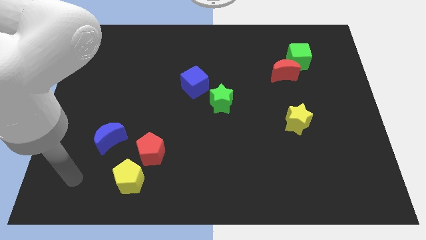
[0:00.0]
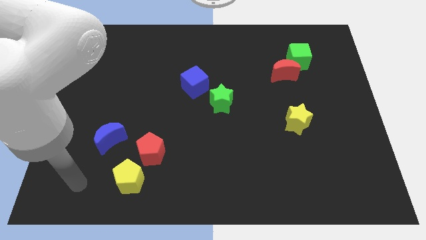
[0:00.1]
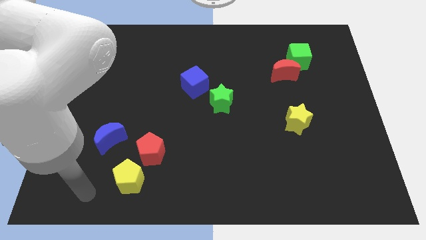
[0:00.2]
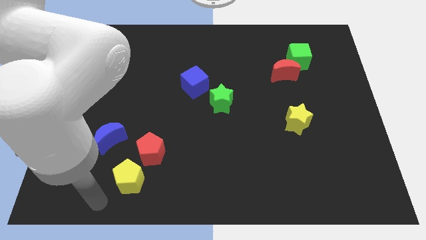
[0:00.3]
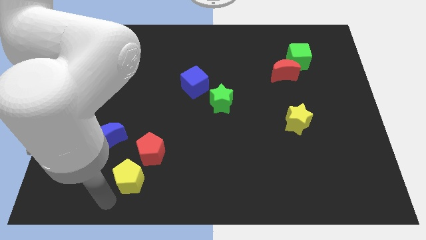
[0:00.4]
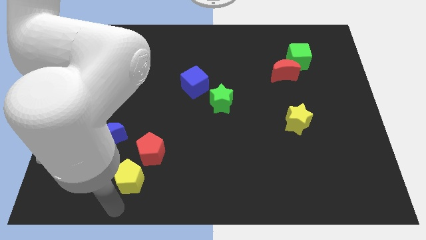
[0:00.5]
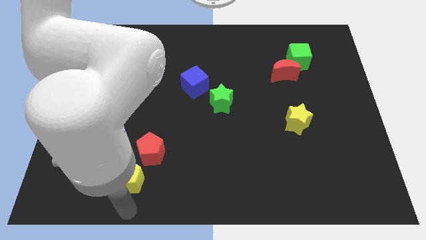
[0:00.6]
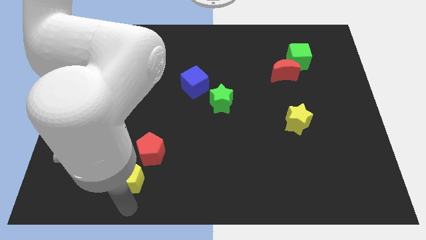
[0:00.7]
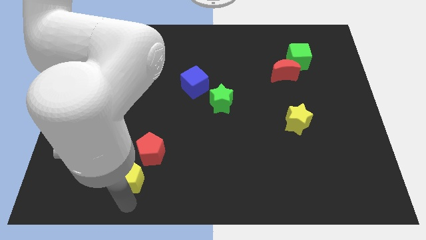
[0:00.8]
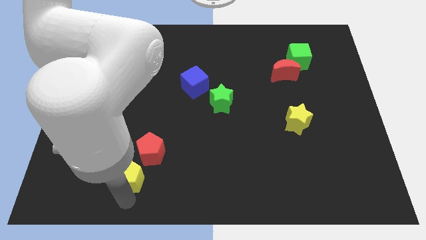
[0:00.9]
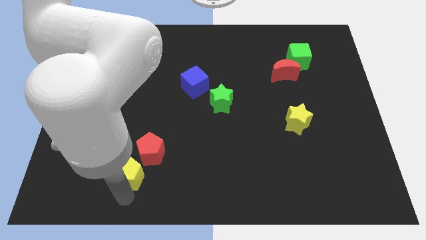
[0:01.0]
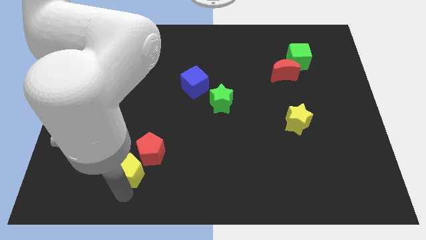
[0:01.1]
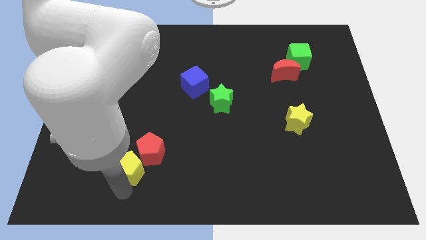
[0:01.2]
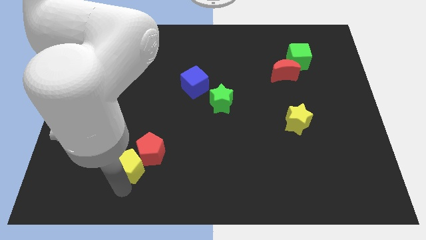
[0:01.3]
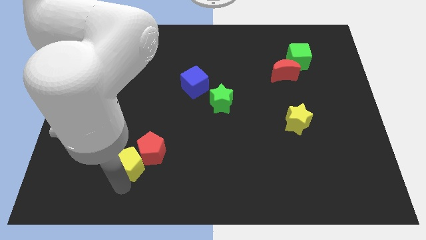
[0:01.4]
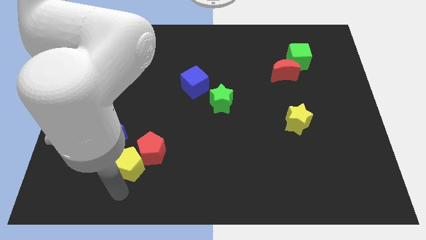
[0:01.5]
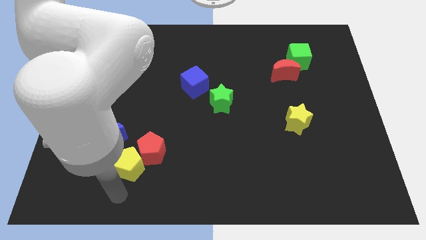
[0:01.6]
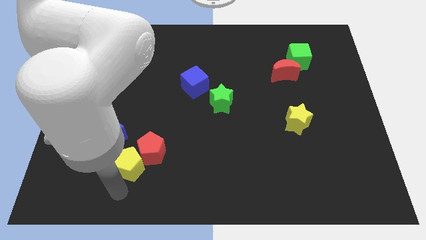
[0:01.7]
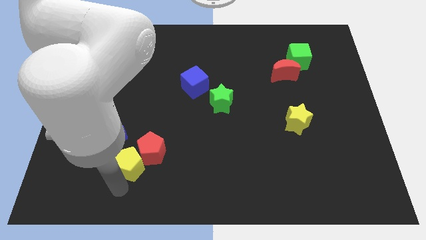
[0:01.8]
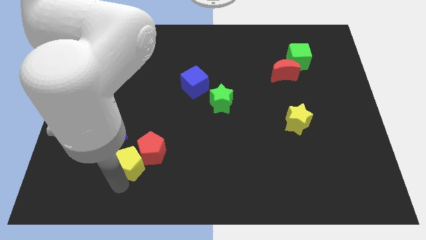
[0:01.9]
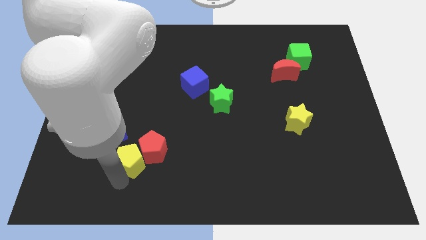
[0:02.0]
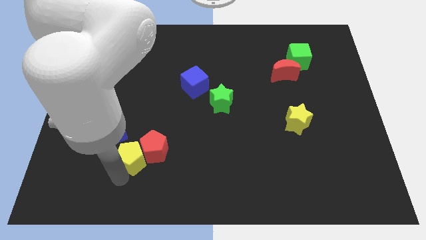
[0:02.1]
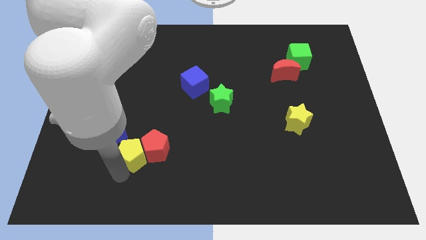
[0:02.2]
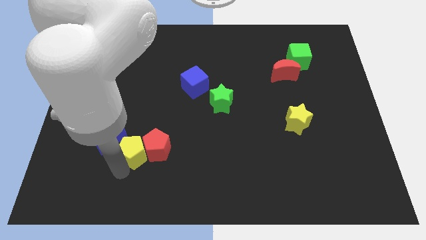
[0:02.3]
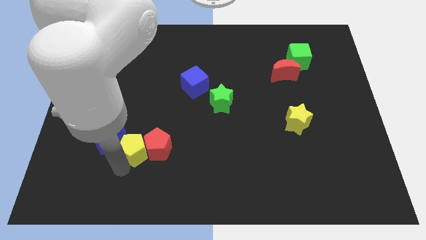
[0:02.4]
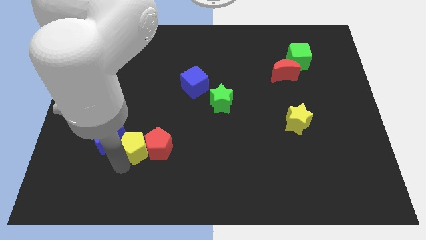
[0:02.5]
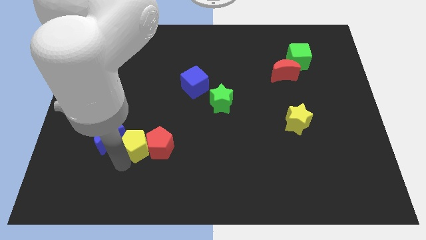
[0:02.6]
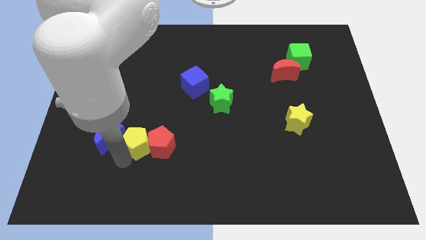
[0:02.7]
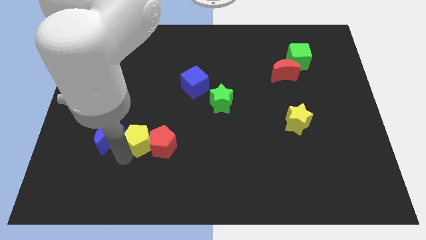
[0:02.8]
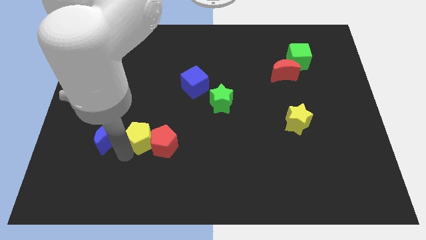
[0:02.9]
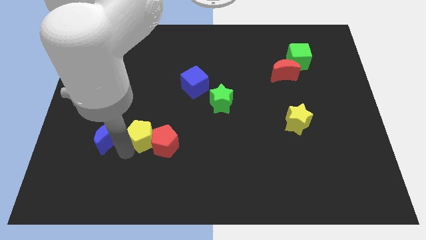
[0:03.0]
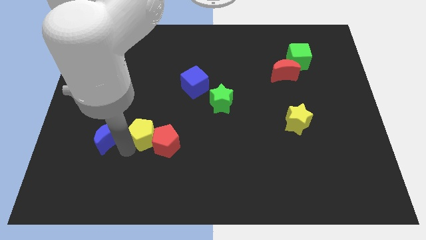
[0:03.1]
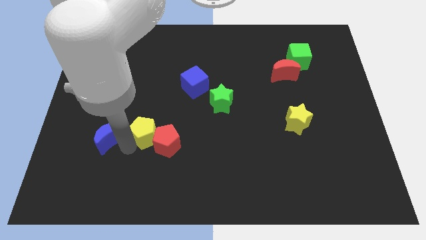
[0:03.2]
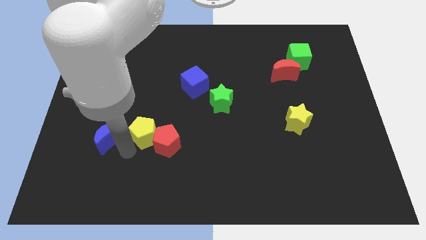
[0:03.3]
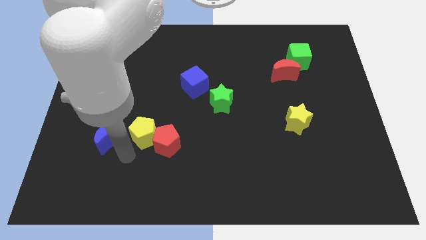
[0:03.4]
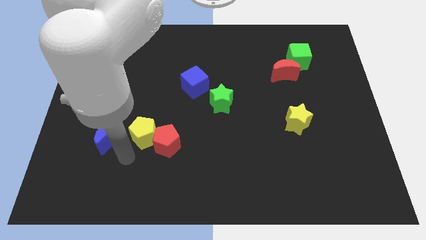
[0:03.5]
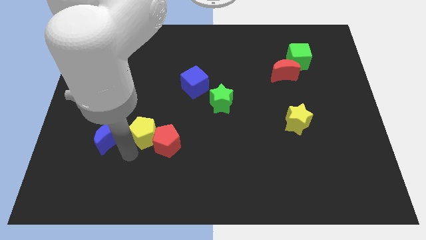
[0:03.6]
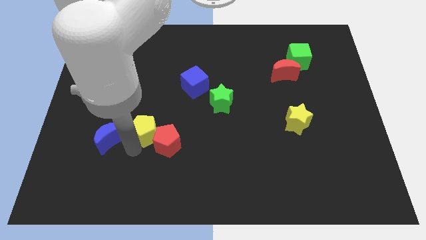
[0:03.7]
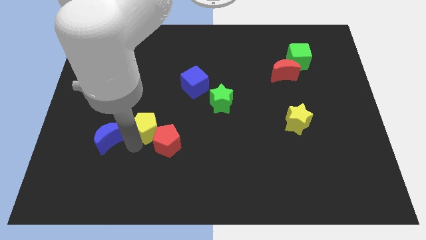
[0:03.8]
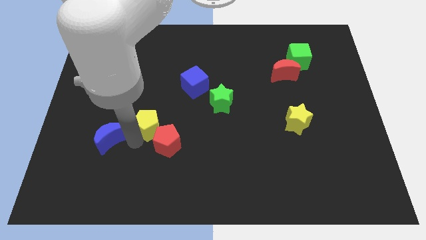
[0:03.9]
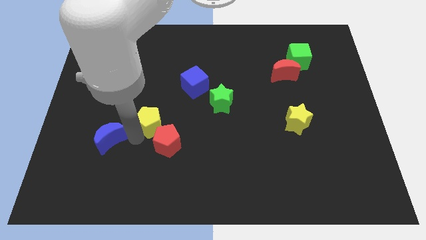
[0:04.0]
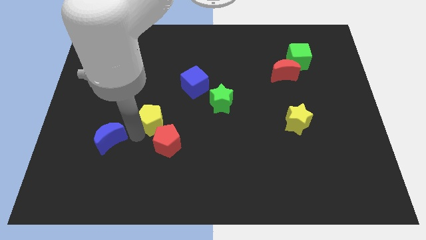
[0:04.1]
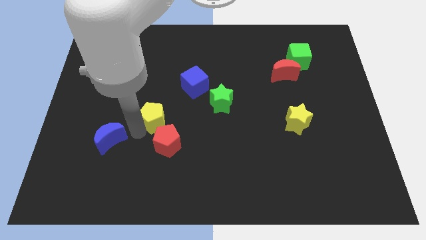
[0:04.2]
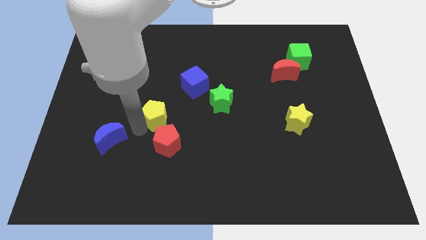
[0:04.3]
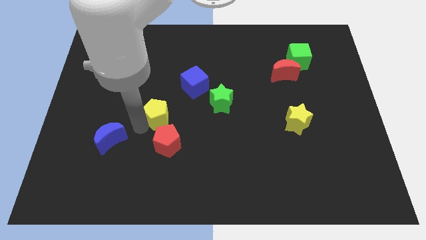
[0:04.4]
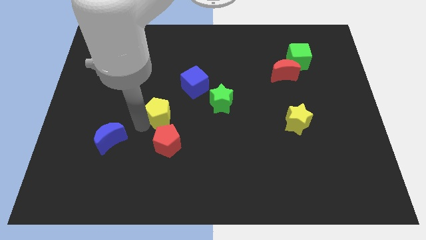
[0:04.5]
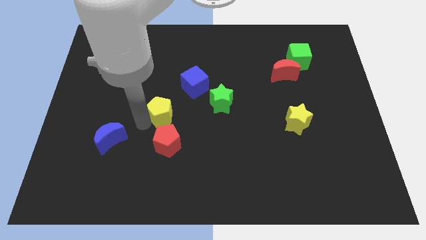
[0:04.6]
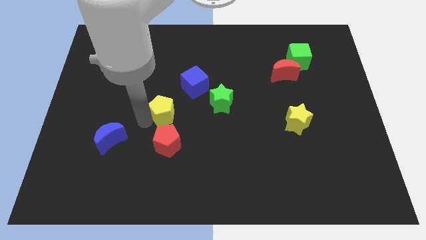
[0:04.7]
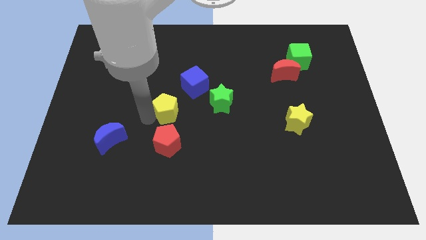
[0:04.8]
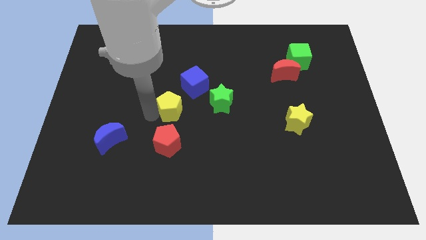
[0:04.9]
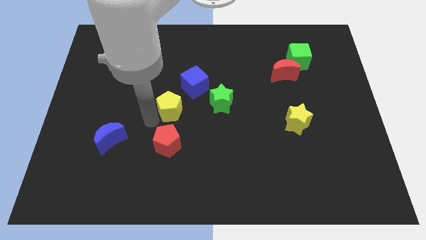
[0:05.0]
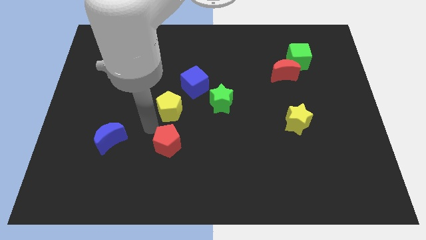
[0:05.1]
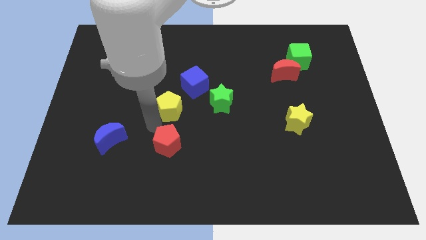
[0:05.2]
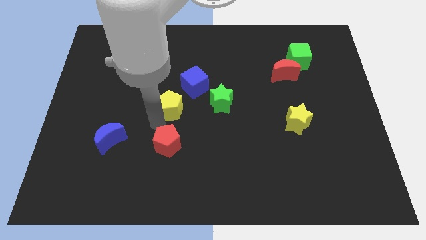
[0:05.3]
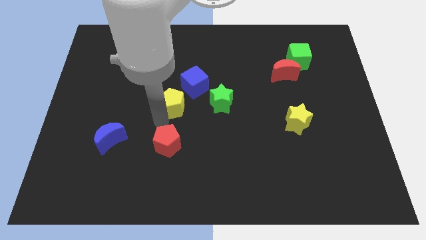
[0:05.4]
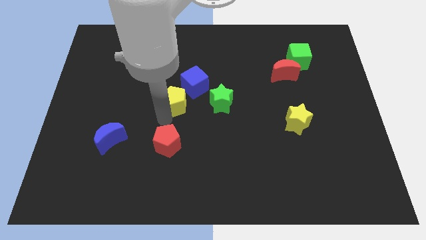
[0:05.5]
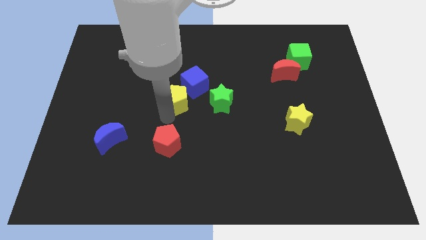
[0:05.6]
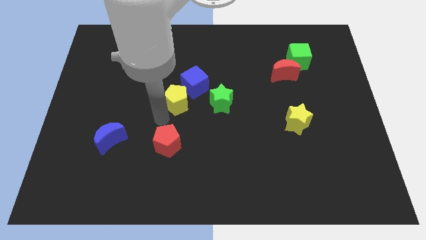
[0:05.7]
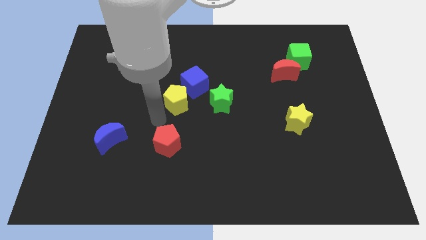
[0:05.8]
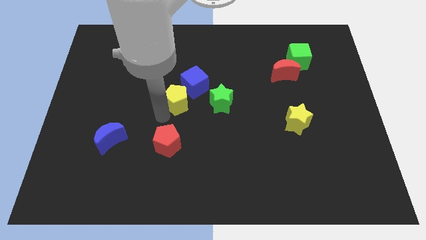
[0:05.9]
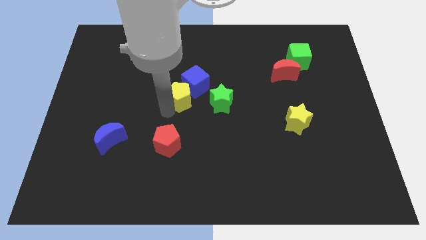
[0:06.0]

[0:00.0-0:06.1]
put the yellow pentagon towards the blue cube

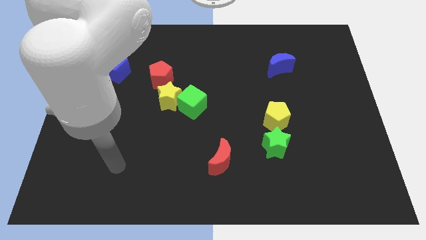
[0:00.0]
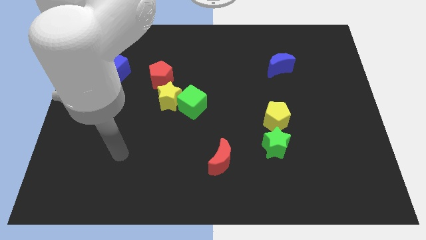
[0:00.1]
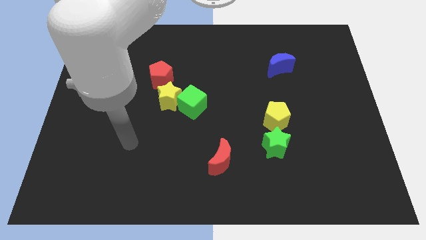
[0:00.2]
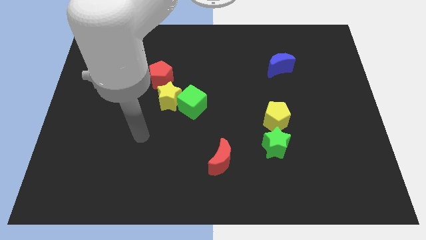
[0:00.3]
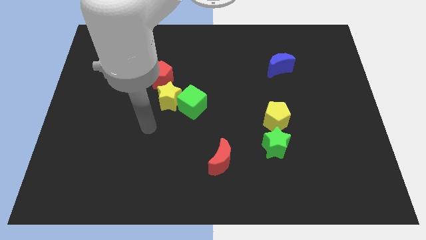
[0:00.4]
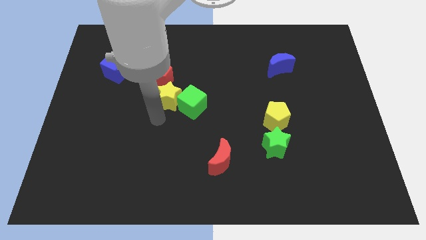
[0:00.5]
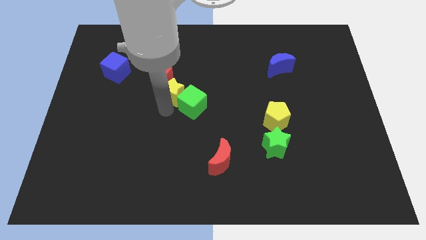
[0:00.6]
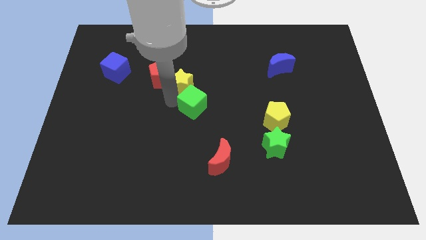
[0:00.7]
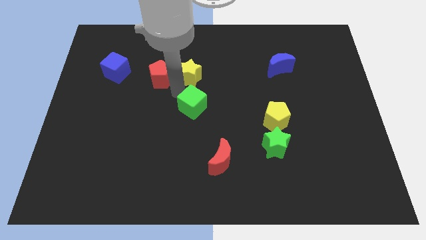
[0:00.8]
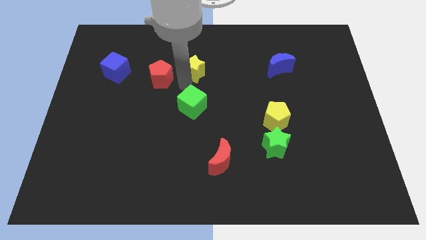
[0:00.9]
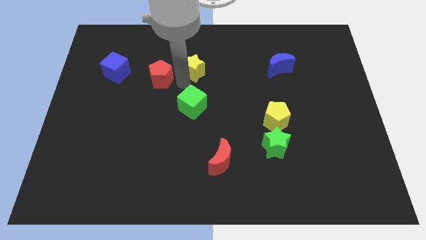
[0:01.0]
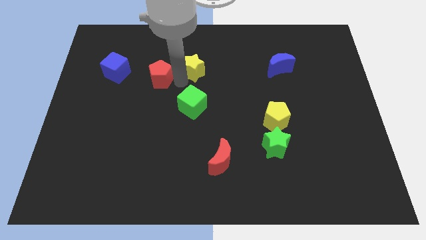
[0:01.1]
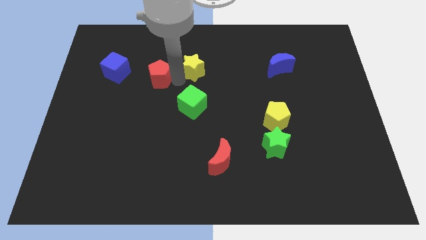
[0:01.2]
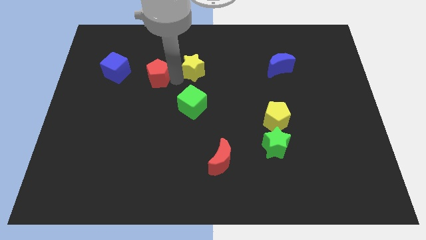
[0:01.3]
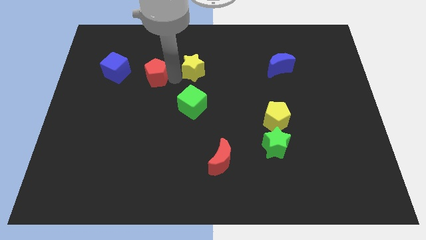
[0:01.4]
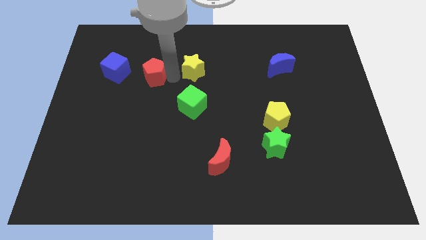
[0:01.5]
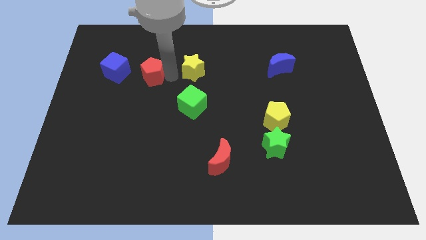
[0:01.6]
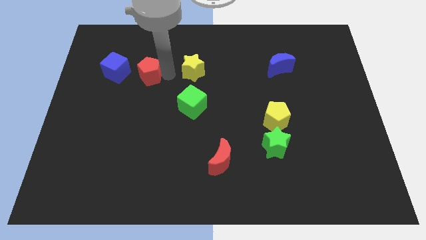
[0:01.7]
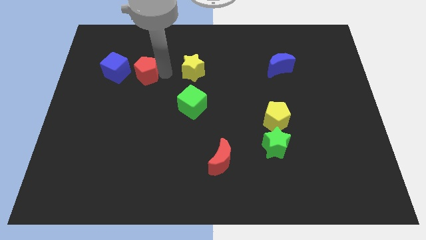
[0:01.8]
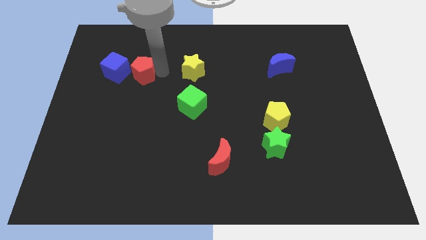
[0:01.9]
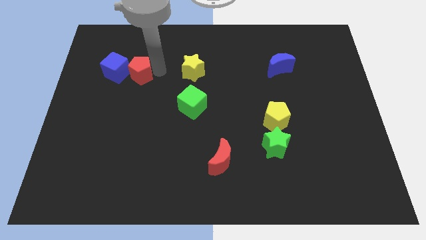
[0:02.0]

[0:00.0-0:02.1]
slide the red pentagon next to the blue cube
